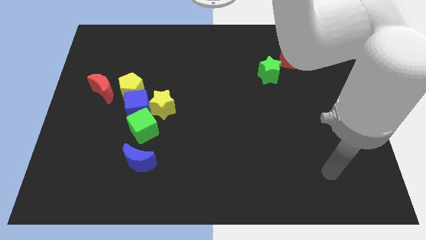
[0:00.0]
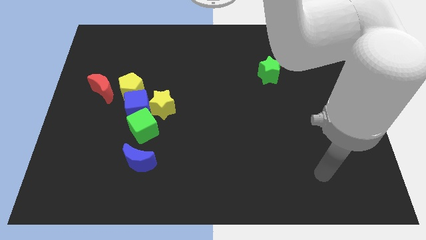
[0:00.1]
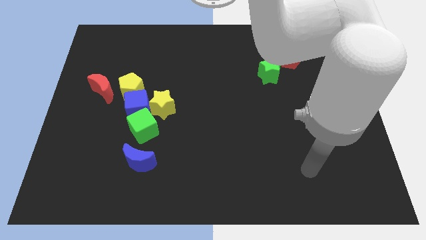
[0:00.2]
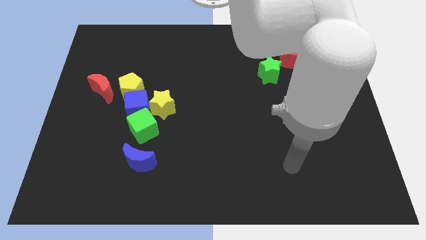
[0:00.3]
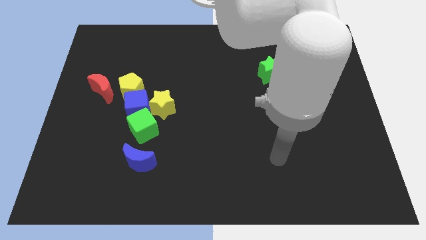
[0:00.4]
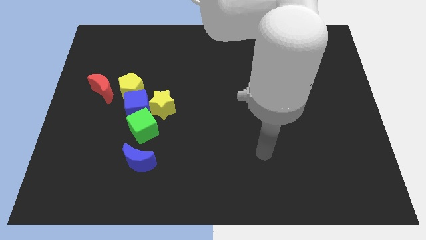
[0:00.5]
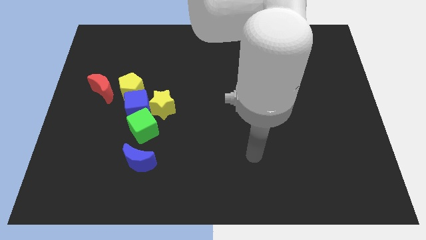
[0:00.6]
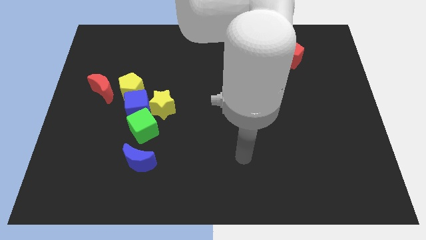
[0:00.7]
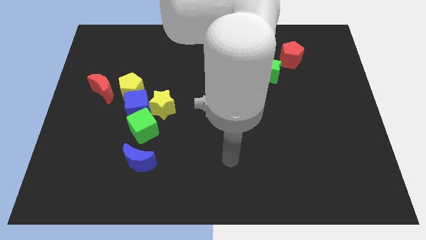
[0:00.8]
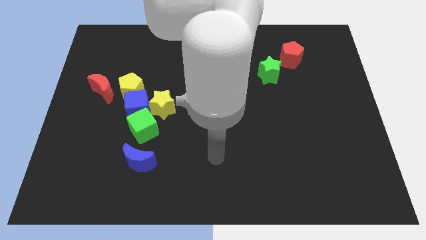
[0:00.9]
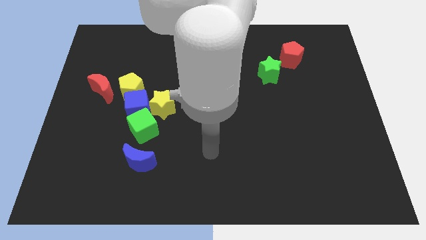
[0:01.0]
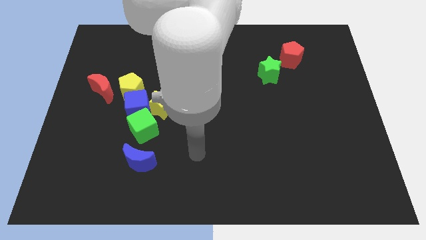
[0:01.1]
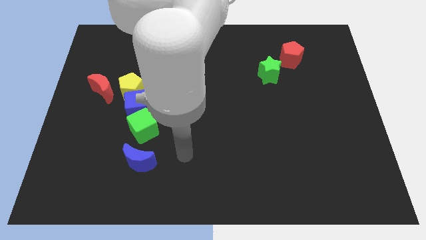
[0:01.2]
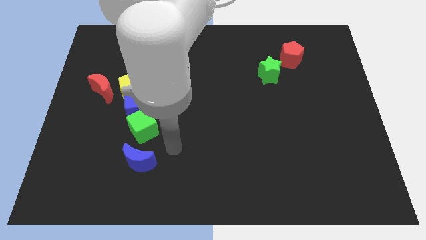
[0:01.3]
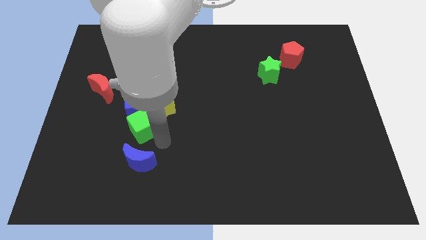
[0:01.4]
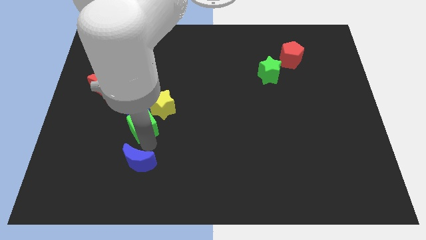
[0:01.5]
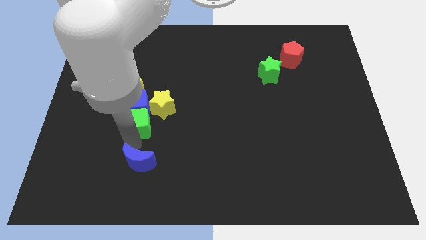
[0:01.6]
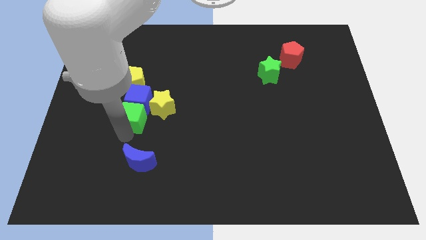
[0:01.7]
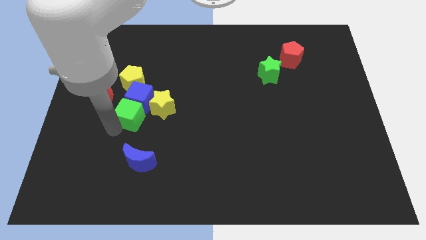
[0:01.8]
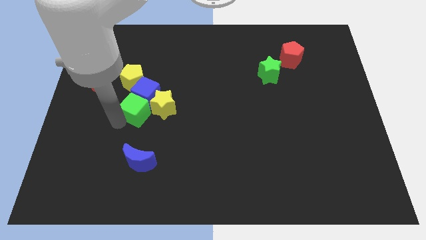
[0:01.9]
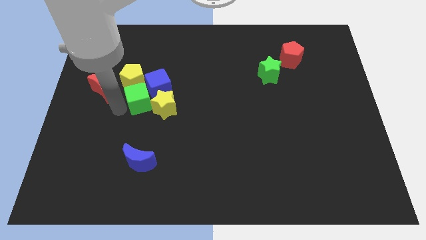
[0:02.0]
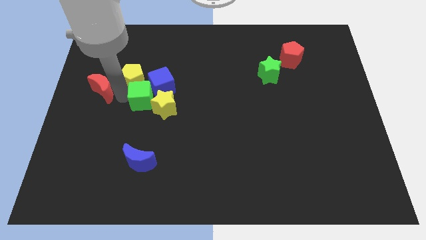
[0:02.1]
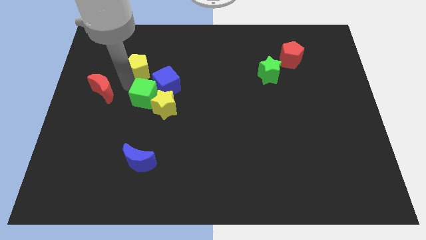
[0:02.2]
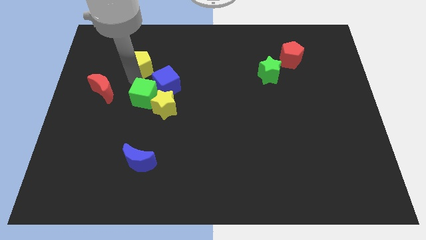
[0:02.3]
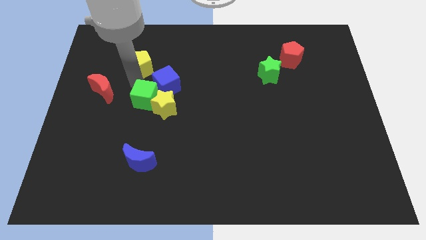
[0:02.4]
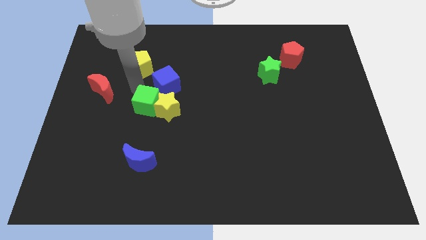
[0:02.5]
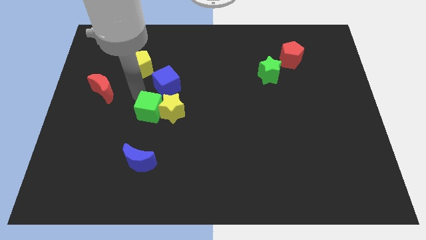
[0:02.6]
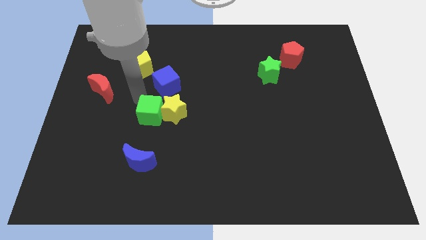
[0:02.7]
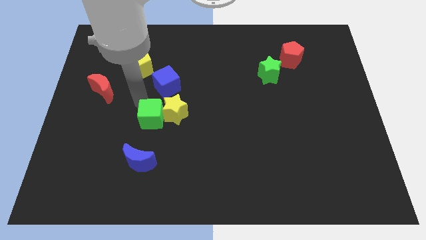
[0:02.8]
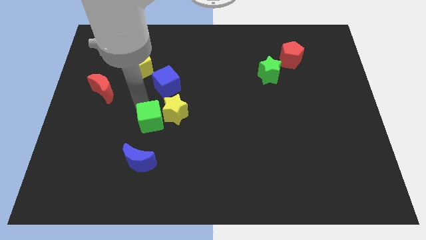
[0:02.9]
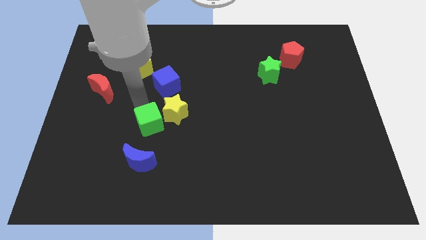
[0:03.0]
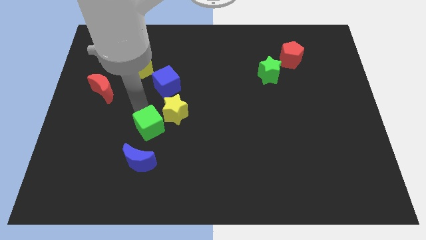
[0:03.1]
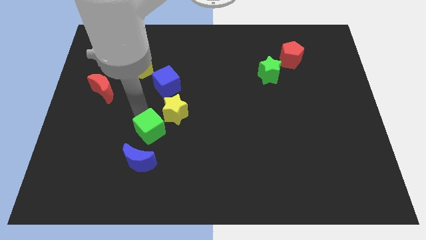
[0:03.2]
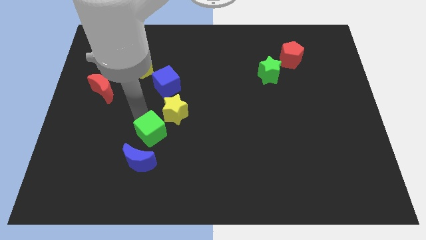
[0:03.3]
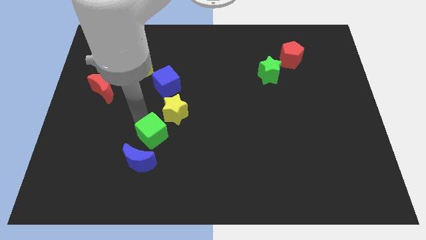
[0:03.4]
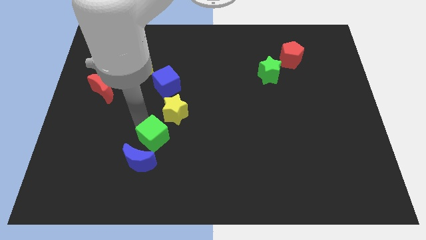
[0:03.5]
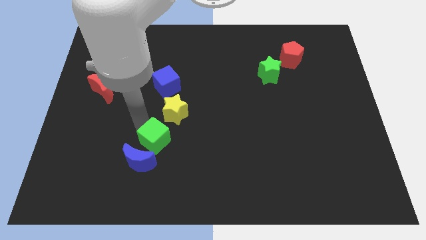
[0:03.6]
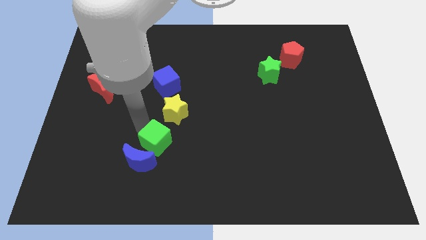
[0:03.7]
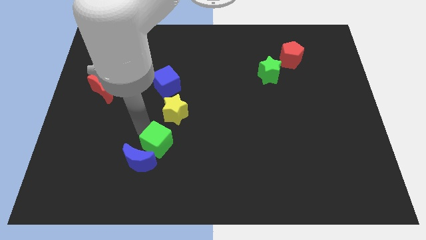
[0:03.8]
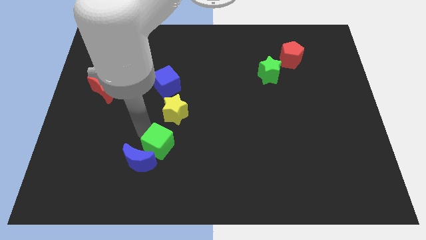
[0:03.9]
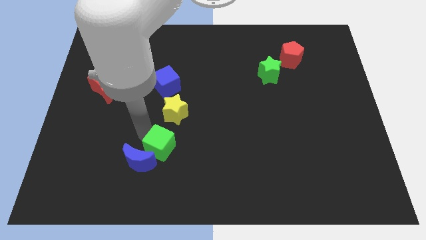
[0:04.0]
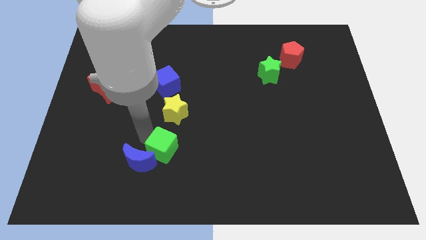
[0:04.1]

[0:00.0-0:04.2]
push the green cube diagonally downwards and to the right a bit

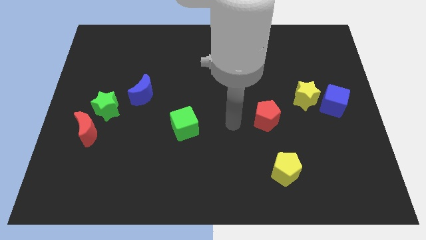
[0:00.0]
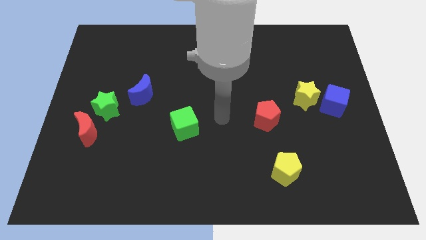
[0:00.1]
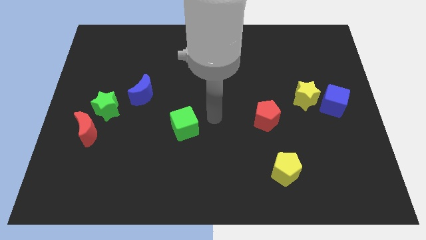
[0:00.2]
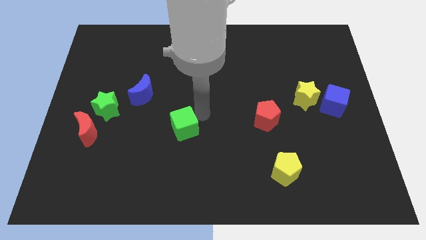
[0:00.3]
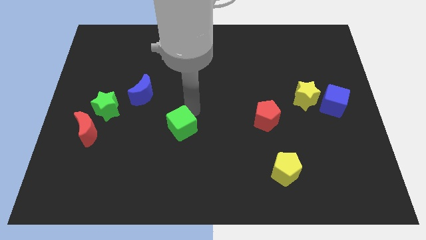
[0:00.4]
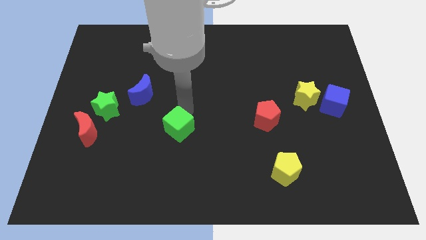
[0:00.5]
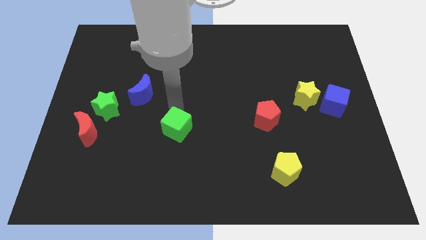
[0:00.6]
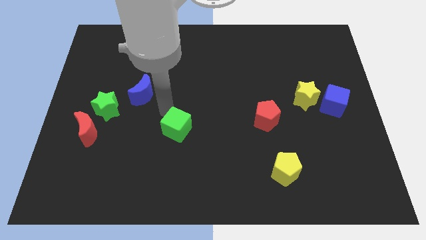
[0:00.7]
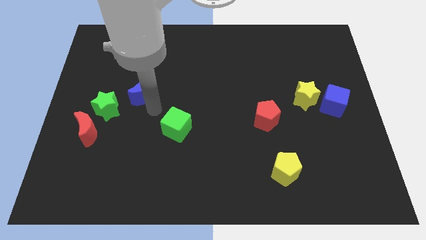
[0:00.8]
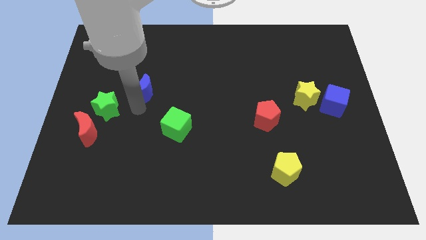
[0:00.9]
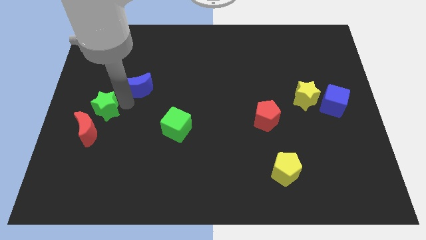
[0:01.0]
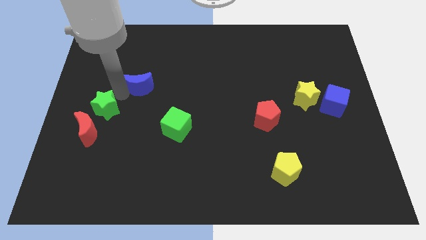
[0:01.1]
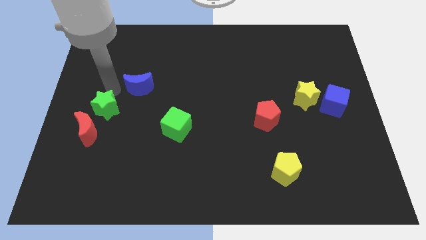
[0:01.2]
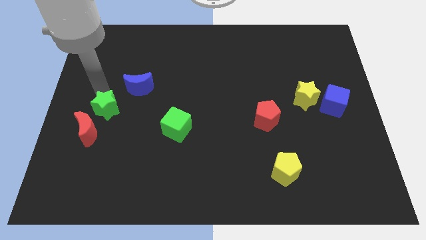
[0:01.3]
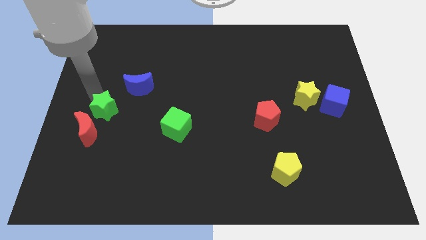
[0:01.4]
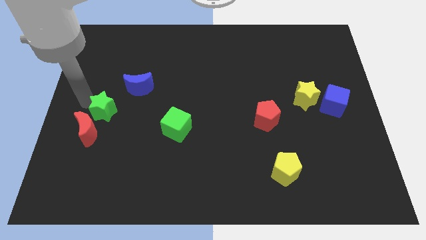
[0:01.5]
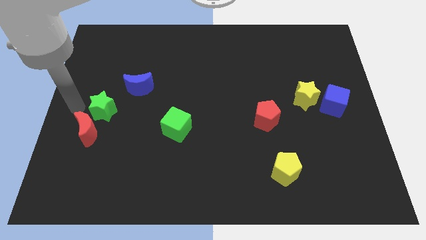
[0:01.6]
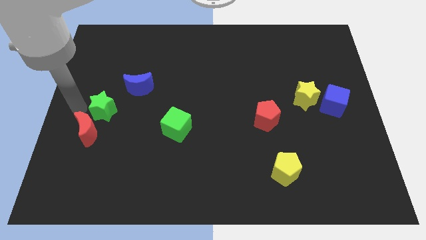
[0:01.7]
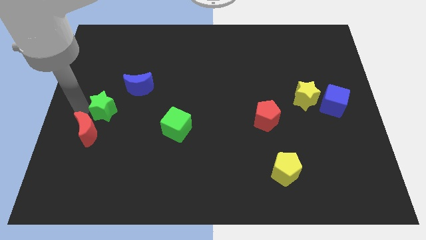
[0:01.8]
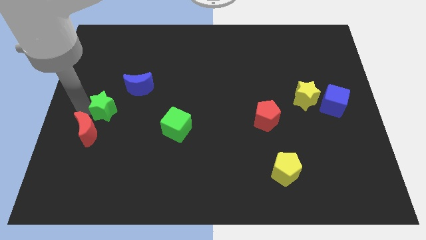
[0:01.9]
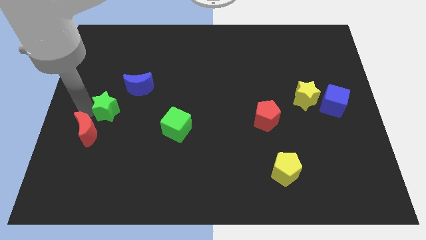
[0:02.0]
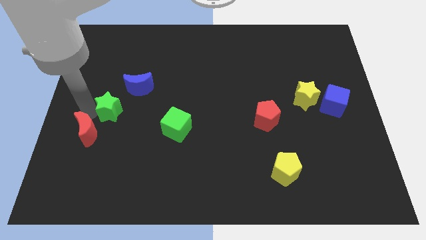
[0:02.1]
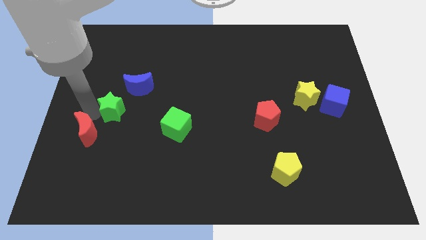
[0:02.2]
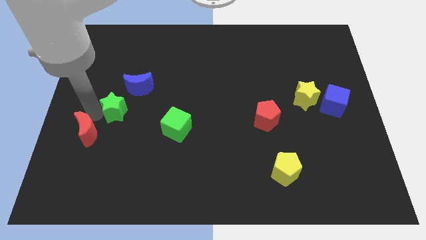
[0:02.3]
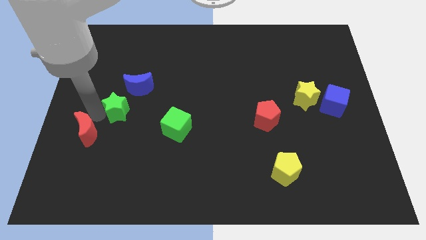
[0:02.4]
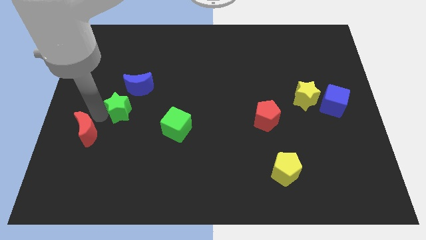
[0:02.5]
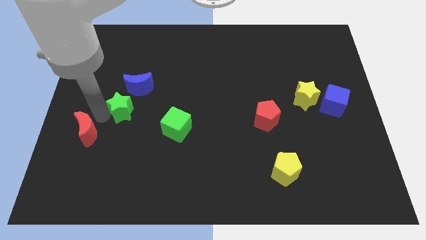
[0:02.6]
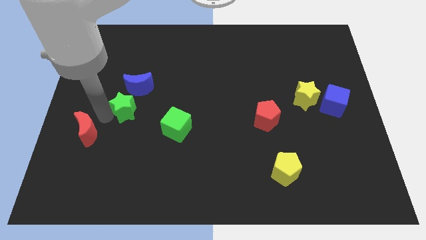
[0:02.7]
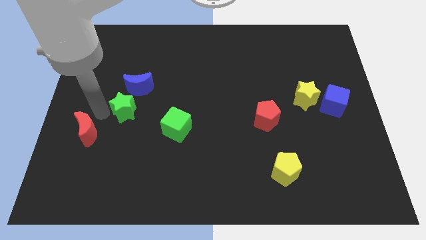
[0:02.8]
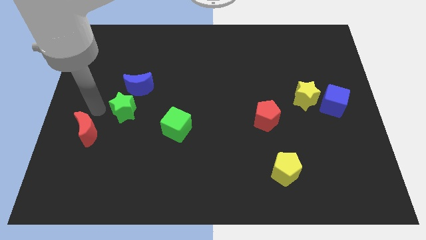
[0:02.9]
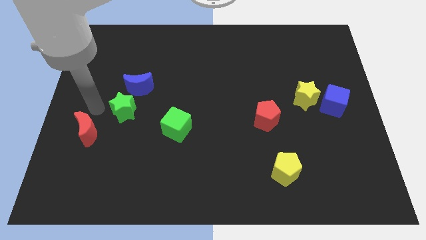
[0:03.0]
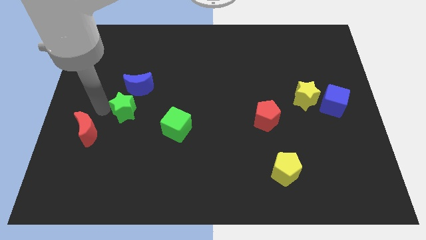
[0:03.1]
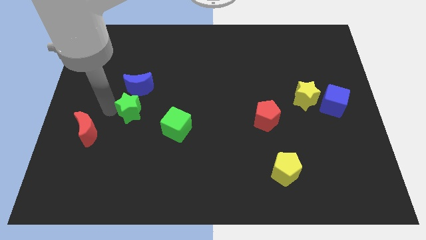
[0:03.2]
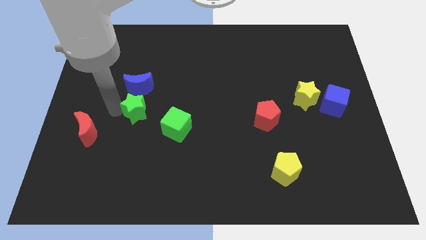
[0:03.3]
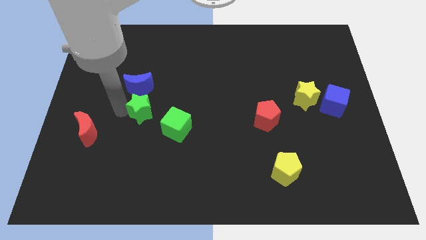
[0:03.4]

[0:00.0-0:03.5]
push the green star somewhat to the right
